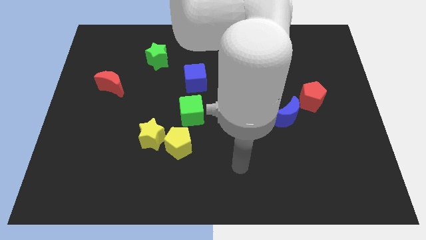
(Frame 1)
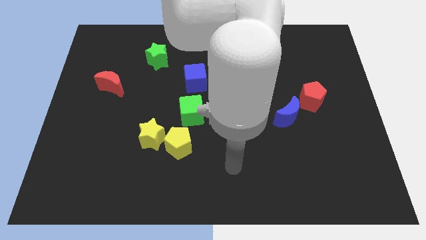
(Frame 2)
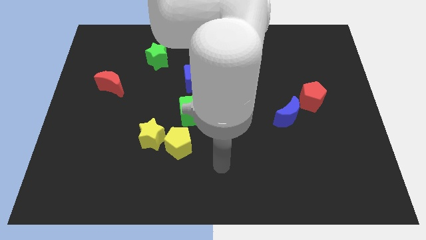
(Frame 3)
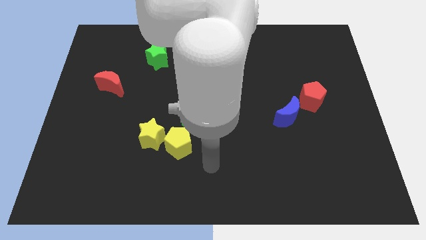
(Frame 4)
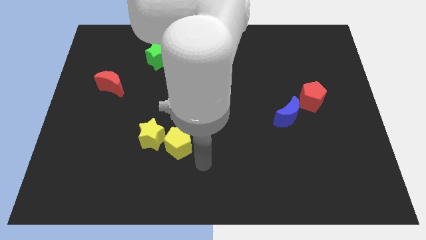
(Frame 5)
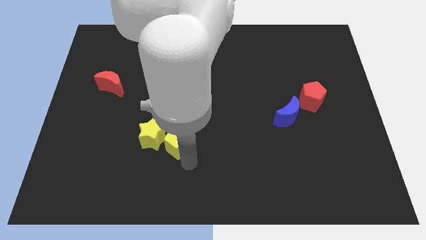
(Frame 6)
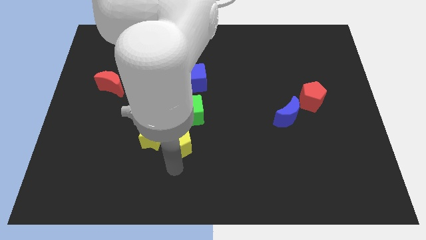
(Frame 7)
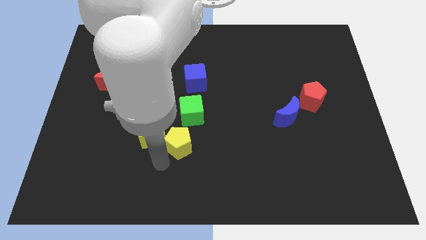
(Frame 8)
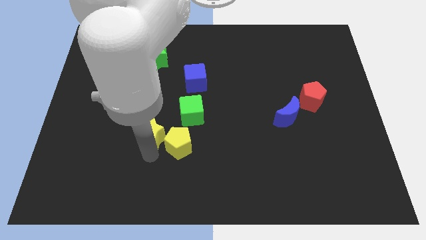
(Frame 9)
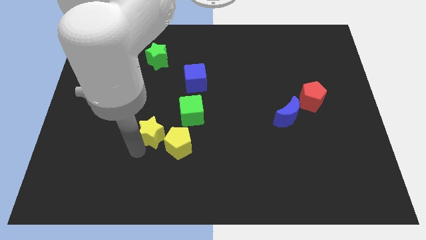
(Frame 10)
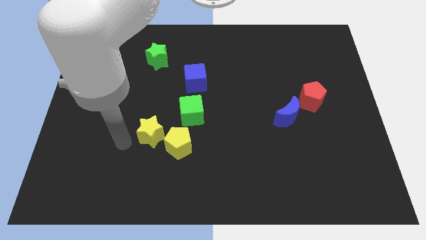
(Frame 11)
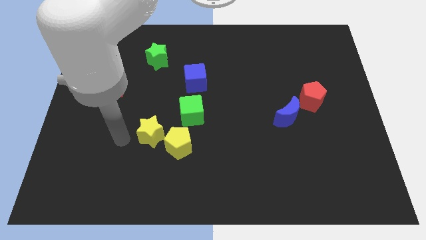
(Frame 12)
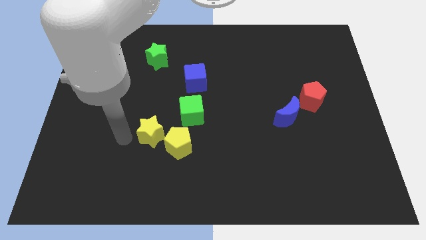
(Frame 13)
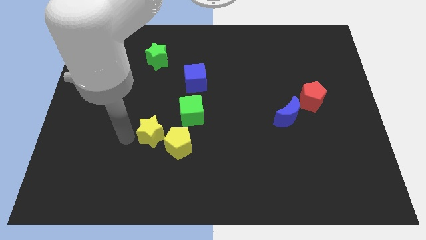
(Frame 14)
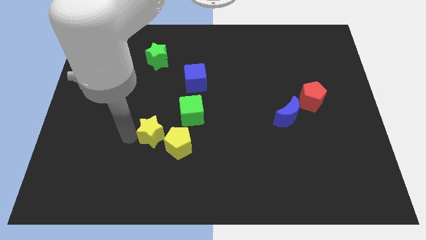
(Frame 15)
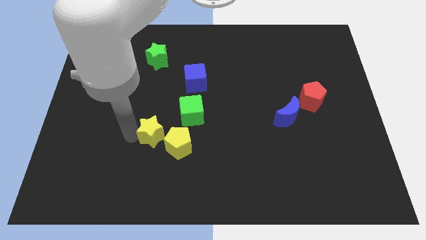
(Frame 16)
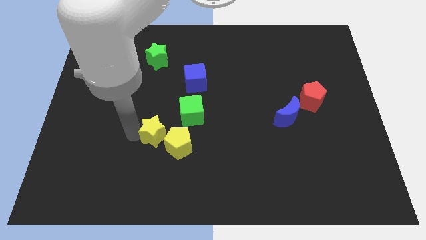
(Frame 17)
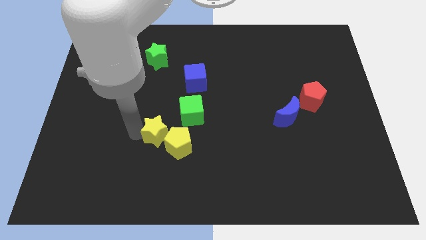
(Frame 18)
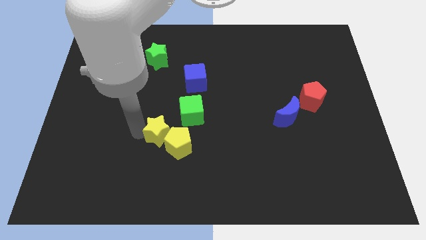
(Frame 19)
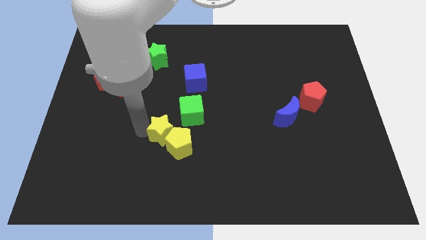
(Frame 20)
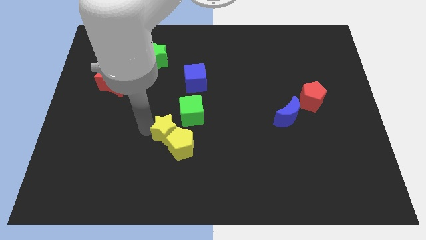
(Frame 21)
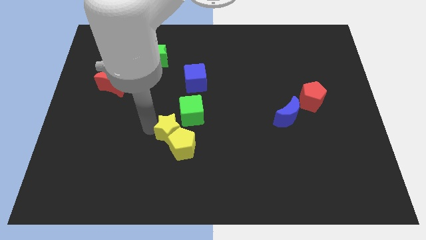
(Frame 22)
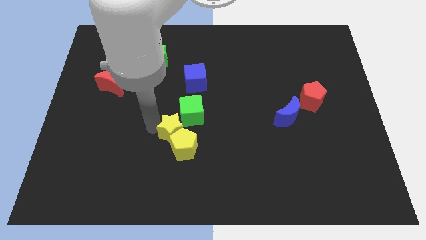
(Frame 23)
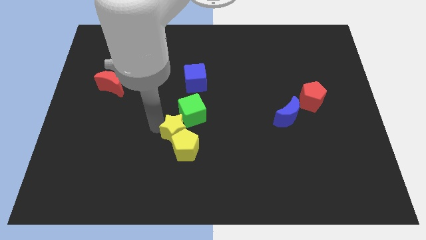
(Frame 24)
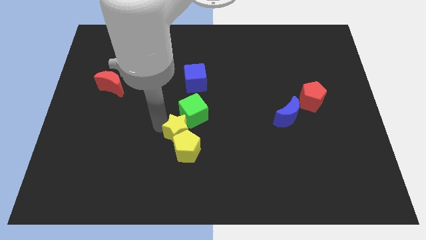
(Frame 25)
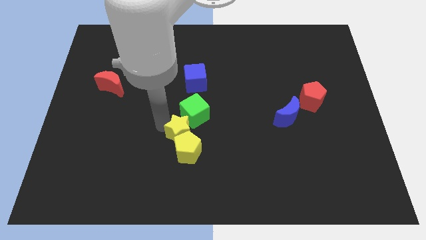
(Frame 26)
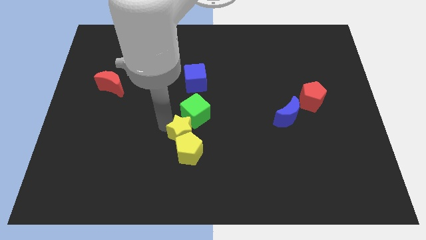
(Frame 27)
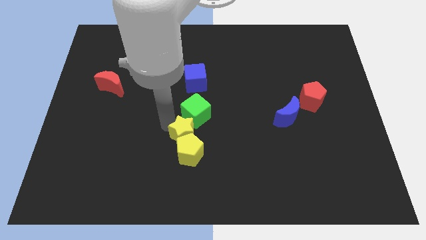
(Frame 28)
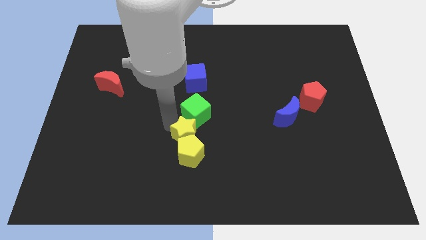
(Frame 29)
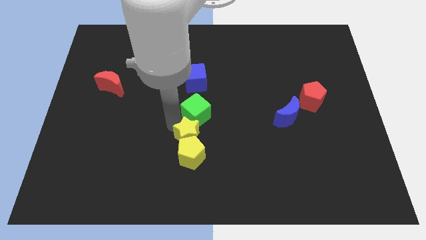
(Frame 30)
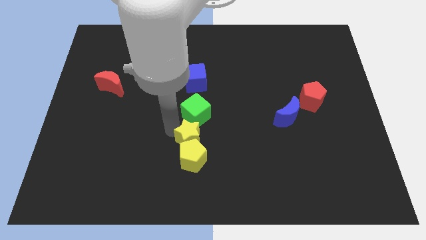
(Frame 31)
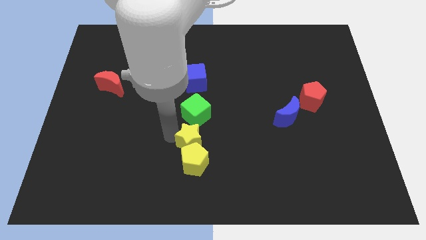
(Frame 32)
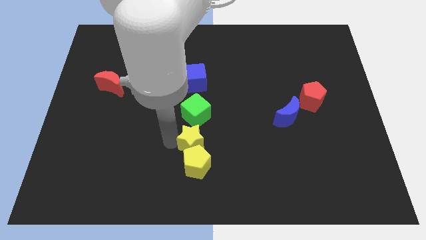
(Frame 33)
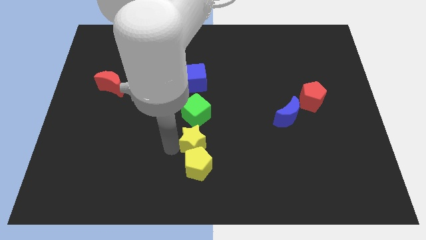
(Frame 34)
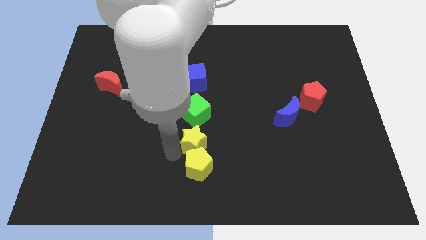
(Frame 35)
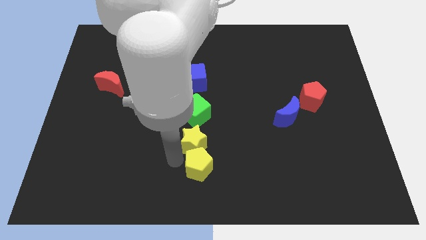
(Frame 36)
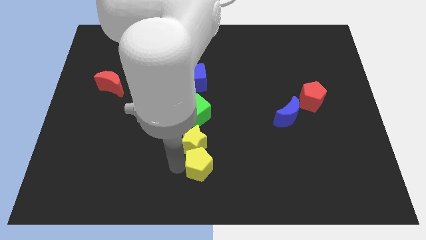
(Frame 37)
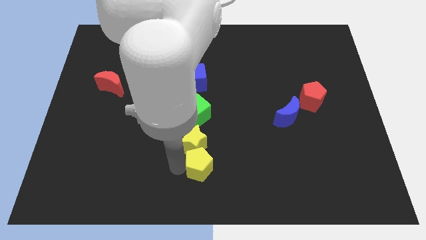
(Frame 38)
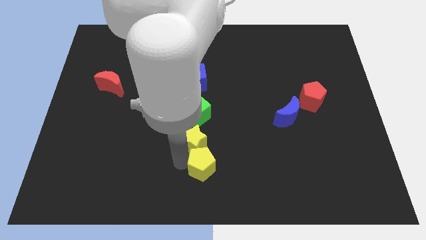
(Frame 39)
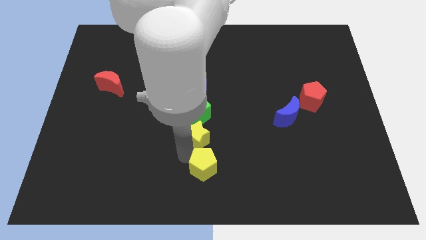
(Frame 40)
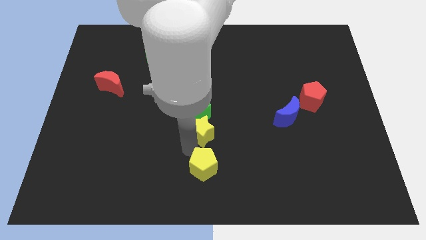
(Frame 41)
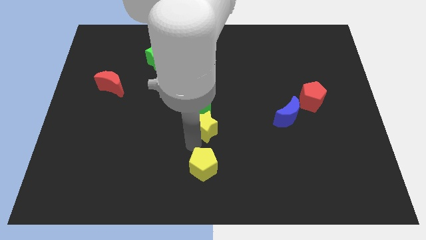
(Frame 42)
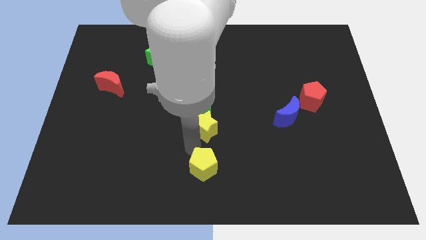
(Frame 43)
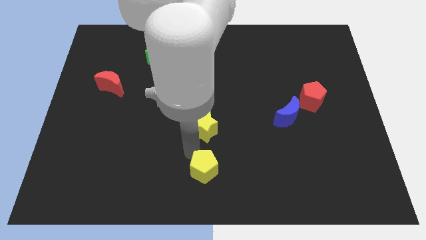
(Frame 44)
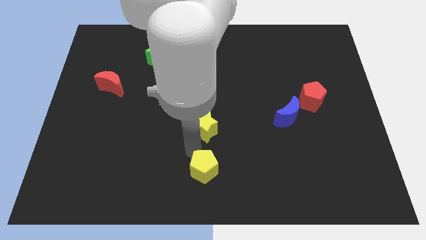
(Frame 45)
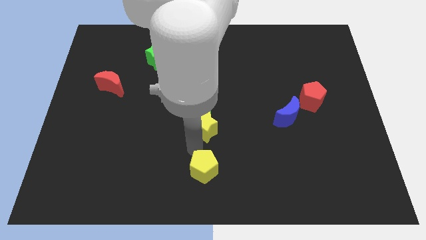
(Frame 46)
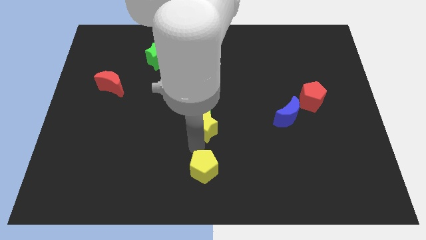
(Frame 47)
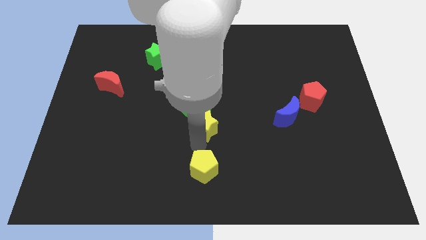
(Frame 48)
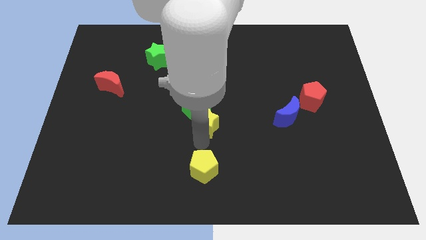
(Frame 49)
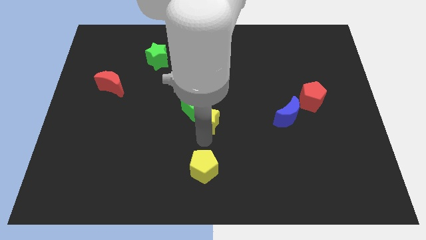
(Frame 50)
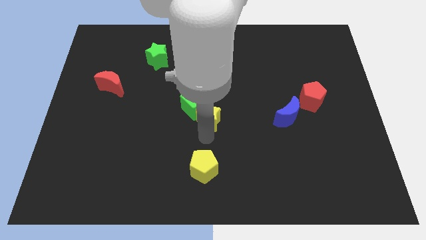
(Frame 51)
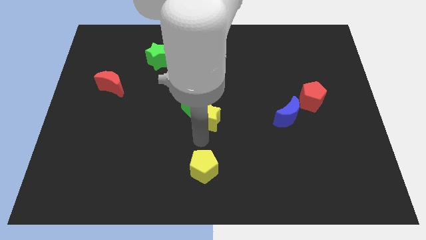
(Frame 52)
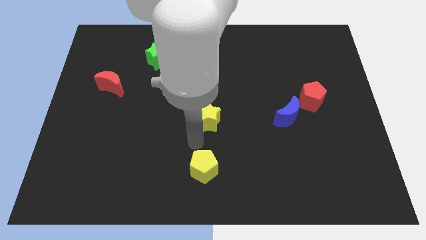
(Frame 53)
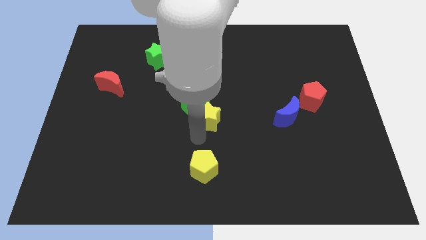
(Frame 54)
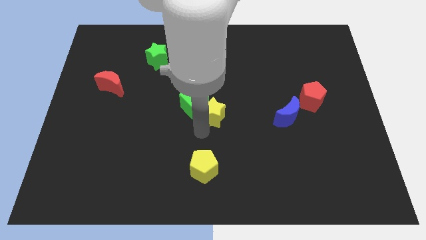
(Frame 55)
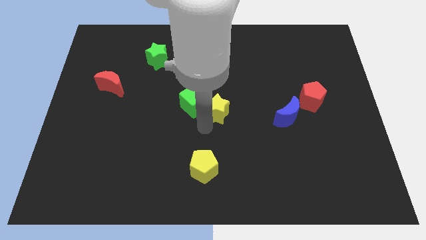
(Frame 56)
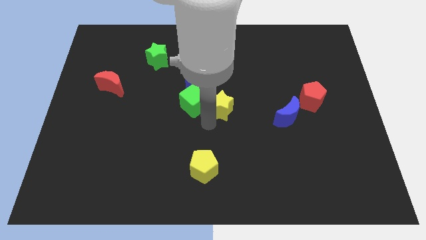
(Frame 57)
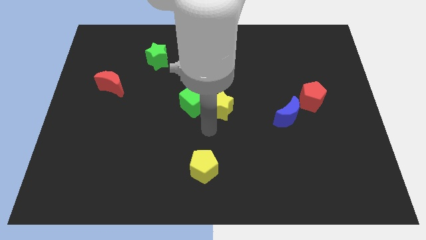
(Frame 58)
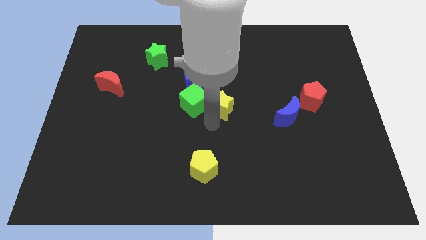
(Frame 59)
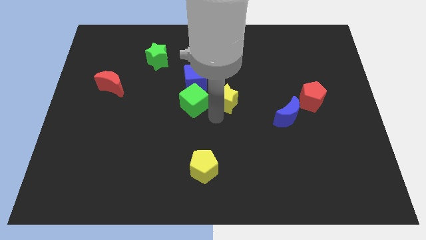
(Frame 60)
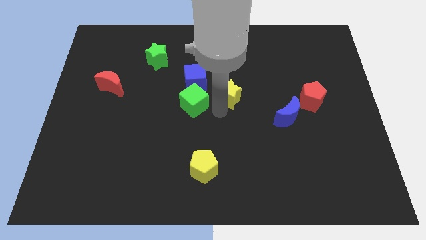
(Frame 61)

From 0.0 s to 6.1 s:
slide the yellow star upwards and then to the right

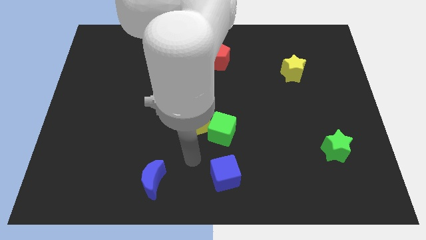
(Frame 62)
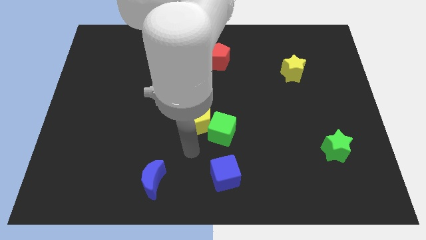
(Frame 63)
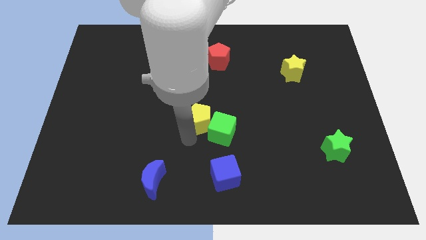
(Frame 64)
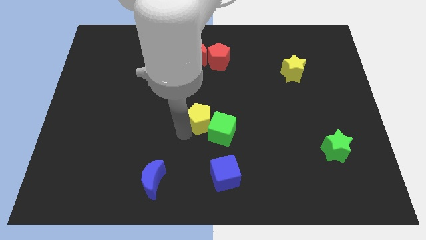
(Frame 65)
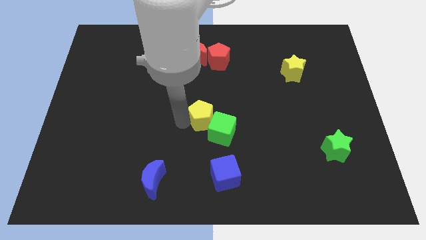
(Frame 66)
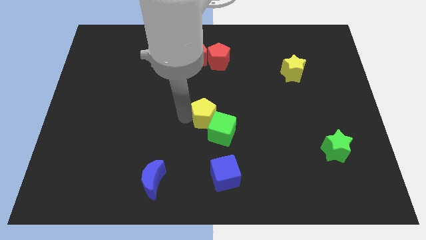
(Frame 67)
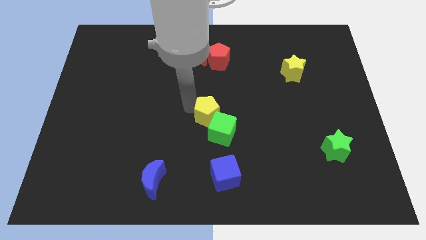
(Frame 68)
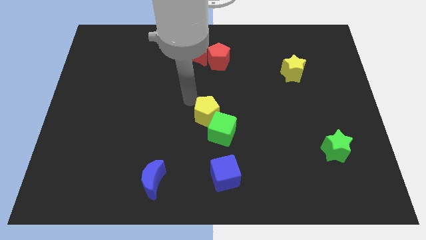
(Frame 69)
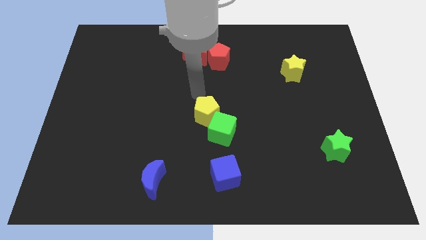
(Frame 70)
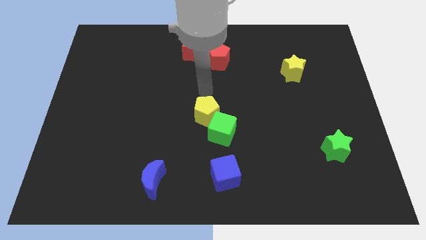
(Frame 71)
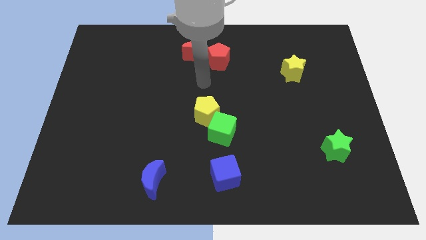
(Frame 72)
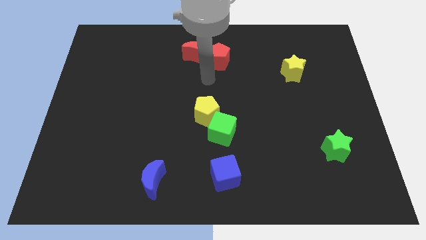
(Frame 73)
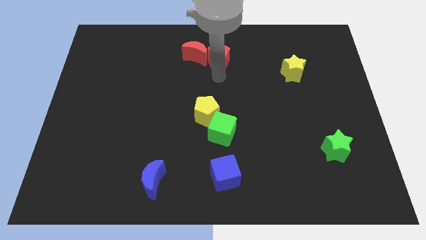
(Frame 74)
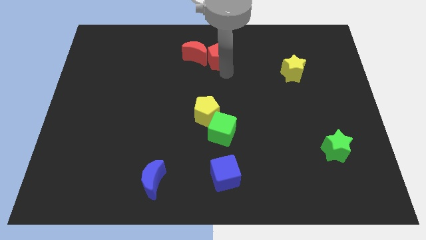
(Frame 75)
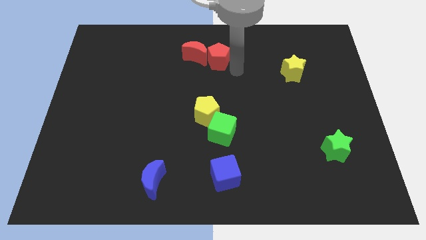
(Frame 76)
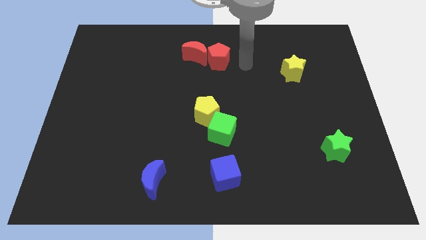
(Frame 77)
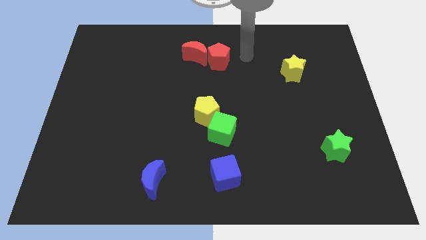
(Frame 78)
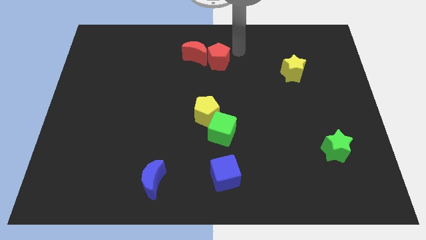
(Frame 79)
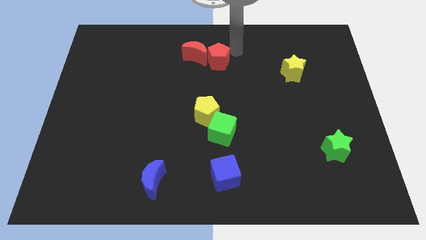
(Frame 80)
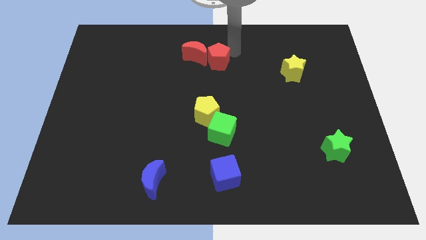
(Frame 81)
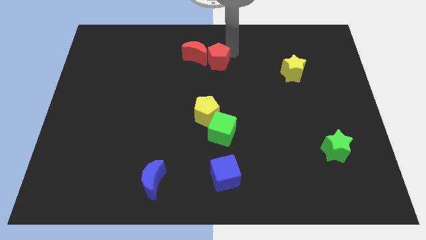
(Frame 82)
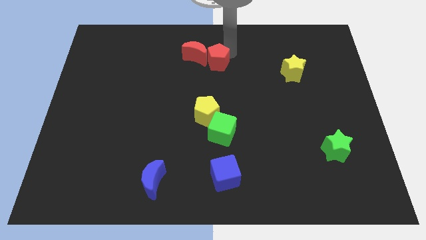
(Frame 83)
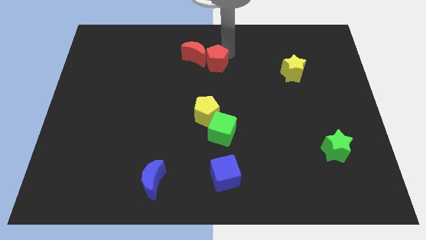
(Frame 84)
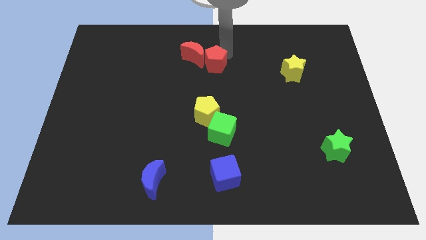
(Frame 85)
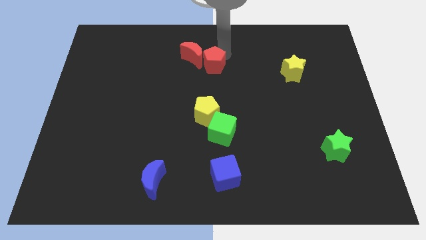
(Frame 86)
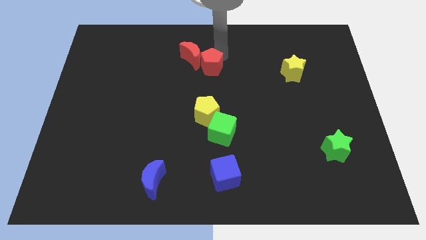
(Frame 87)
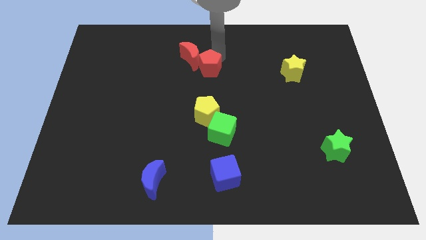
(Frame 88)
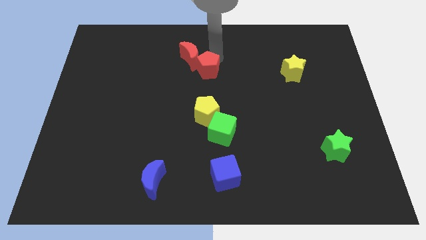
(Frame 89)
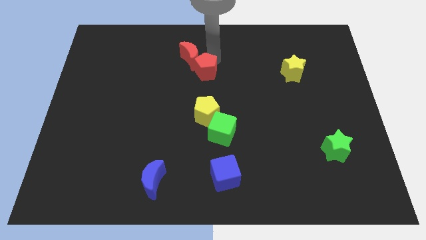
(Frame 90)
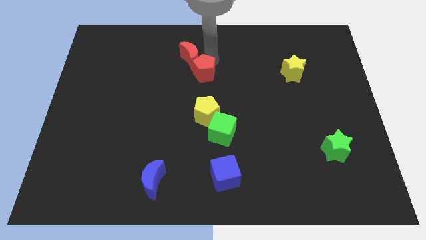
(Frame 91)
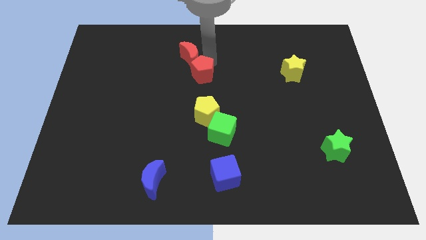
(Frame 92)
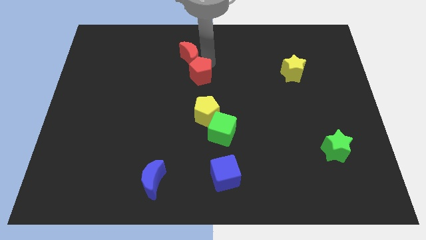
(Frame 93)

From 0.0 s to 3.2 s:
slide the red pentagon diagonally down and to the left a little
